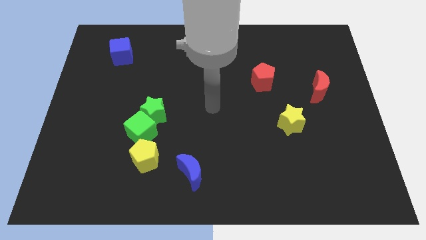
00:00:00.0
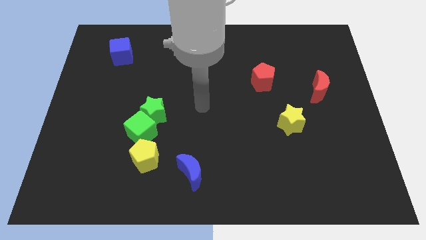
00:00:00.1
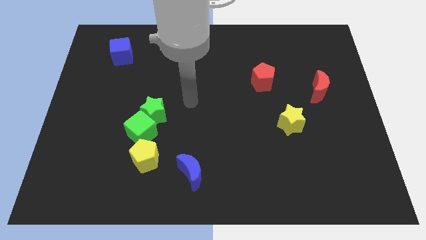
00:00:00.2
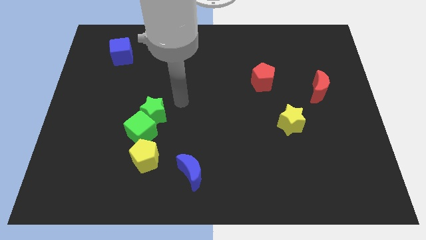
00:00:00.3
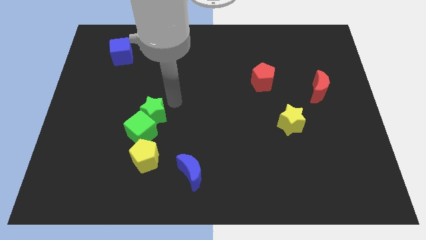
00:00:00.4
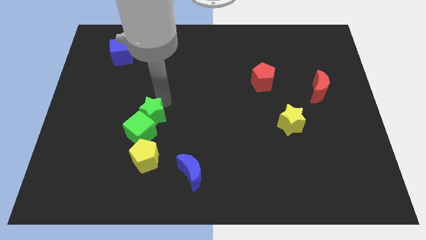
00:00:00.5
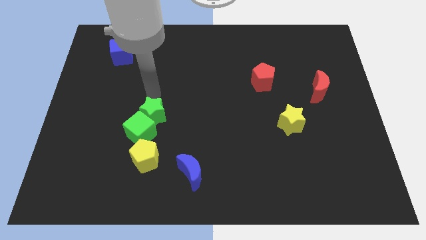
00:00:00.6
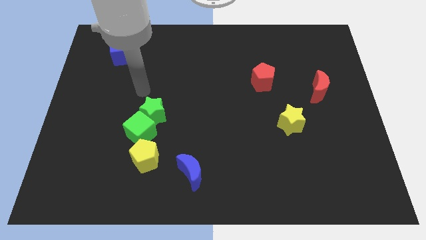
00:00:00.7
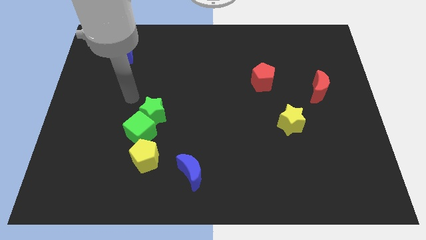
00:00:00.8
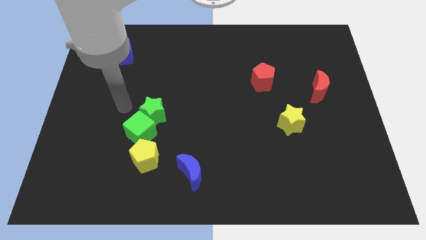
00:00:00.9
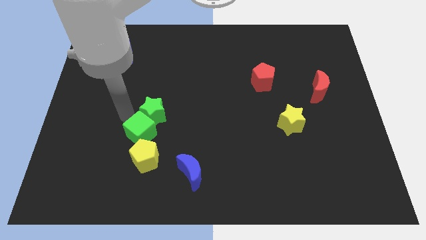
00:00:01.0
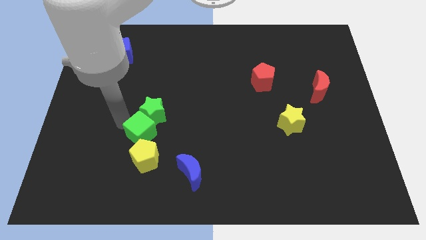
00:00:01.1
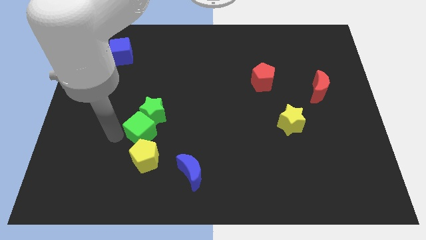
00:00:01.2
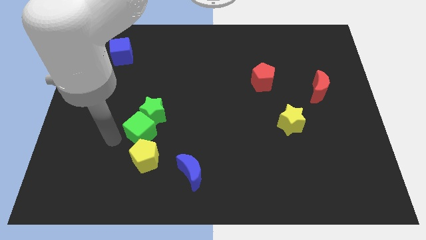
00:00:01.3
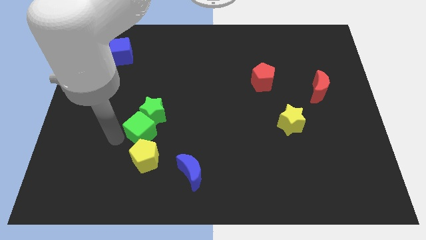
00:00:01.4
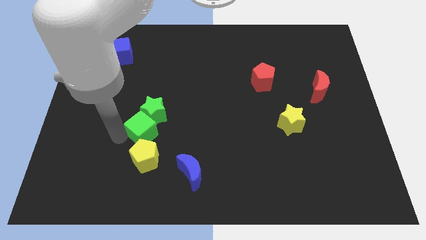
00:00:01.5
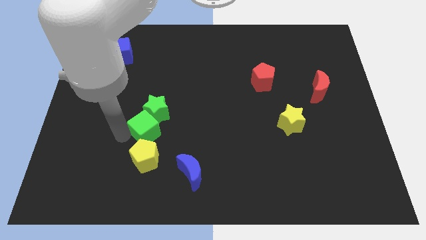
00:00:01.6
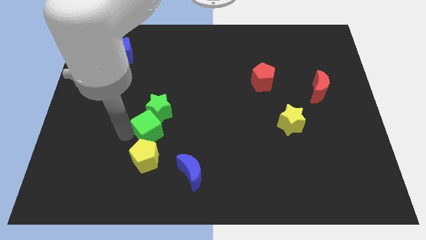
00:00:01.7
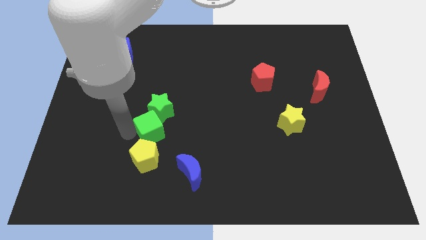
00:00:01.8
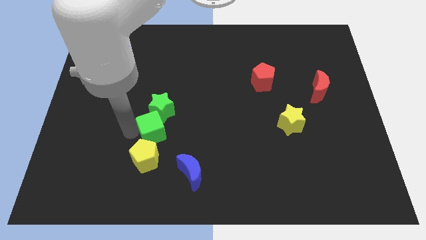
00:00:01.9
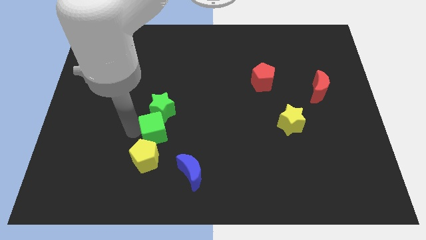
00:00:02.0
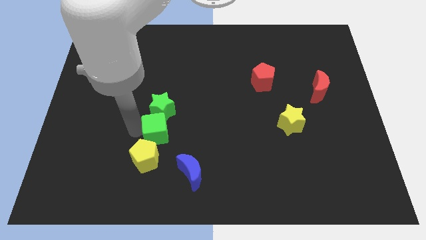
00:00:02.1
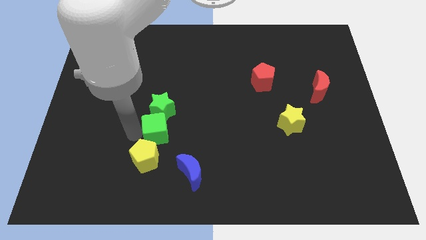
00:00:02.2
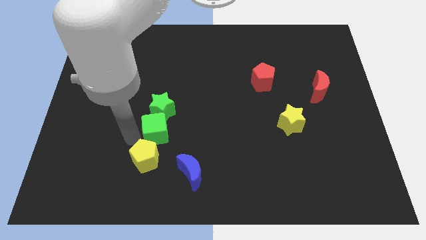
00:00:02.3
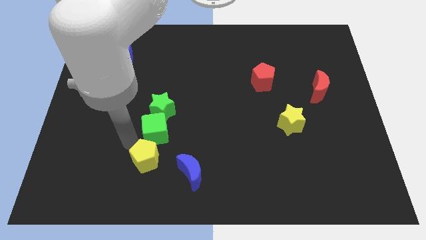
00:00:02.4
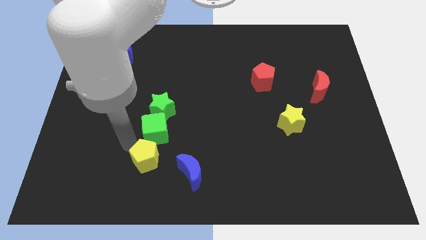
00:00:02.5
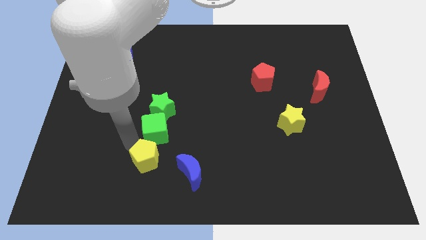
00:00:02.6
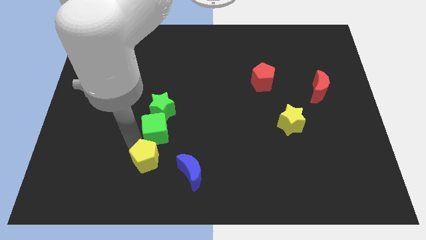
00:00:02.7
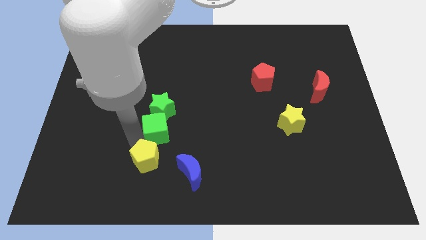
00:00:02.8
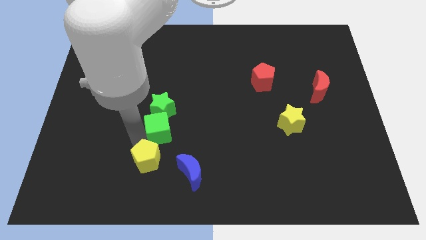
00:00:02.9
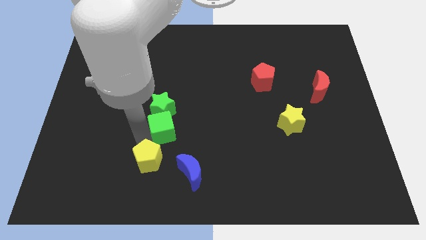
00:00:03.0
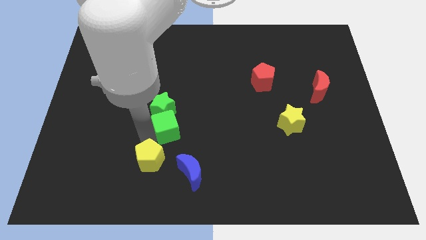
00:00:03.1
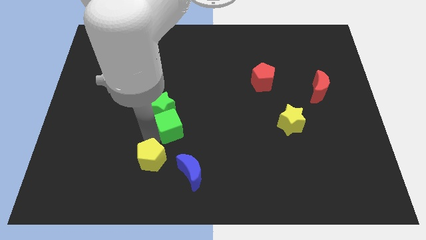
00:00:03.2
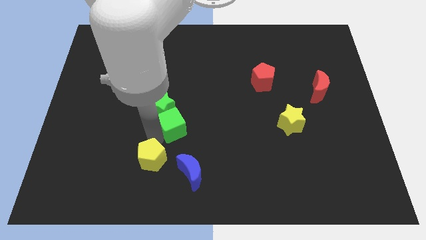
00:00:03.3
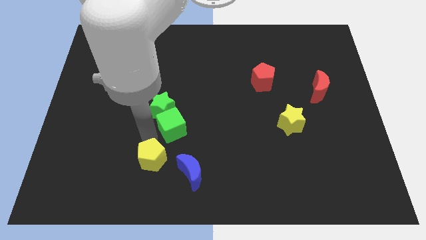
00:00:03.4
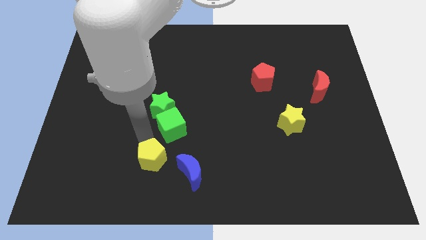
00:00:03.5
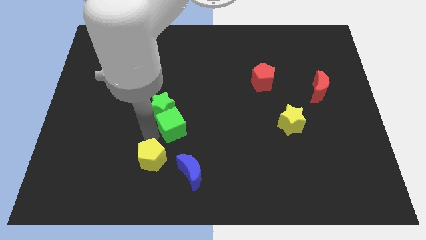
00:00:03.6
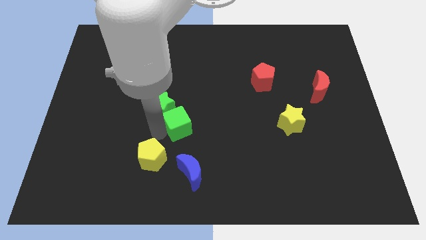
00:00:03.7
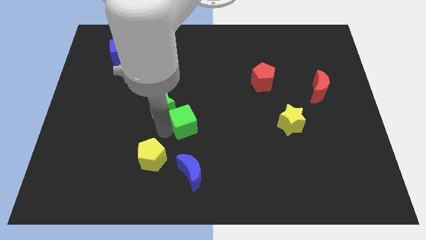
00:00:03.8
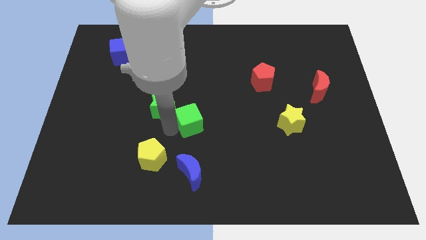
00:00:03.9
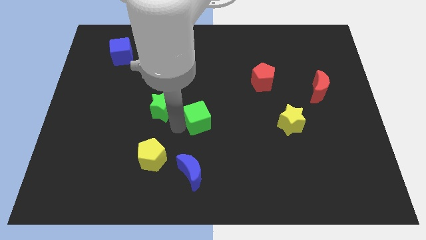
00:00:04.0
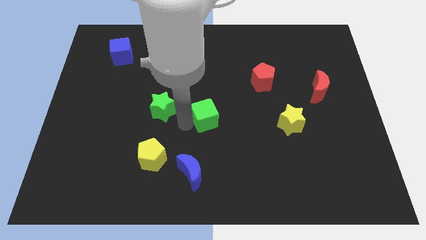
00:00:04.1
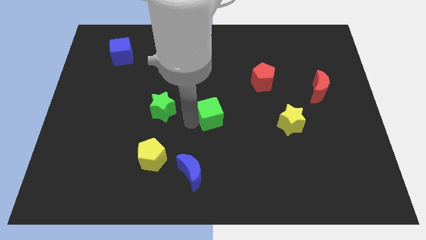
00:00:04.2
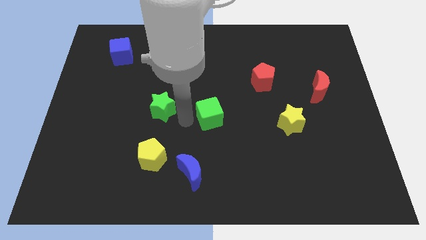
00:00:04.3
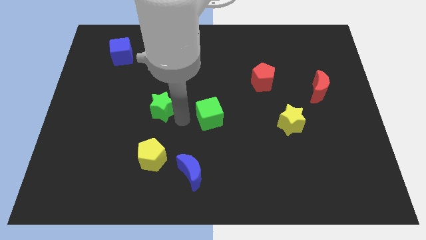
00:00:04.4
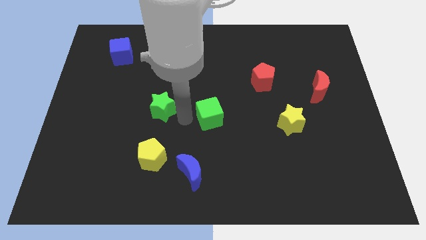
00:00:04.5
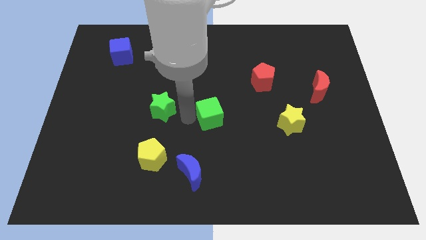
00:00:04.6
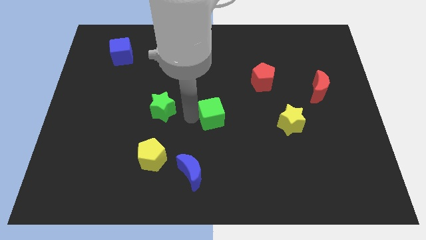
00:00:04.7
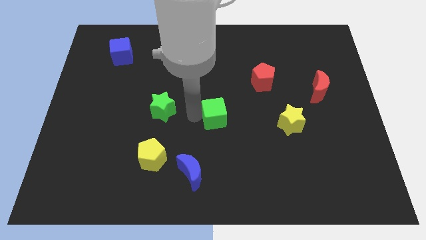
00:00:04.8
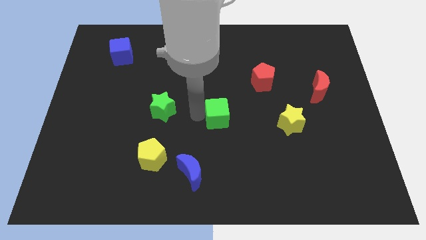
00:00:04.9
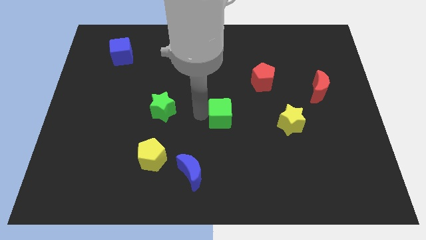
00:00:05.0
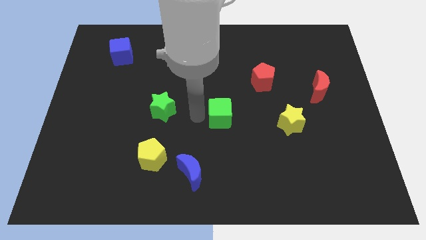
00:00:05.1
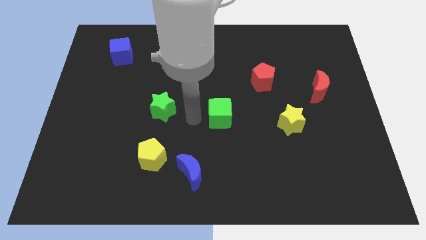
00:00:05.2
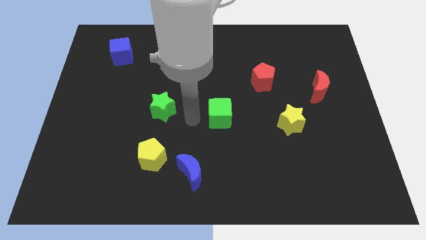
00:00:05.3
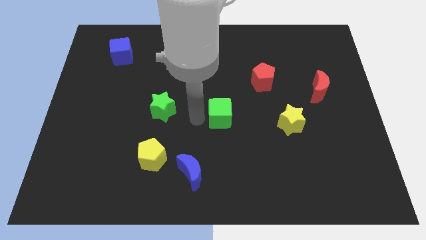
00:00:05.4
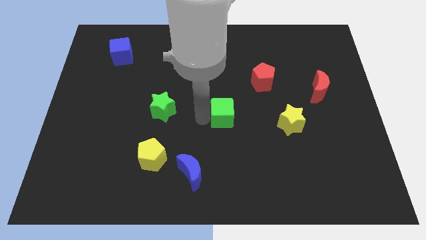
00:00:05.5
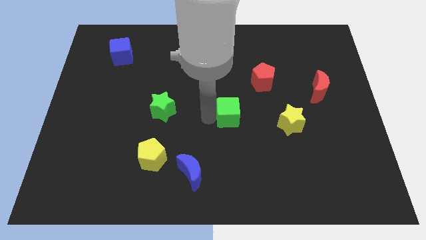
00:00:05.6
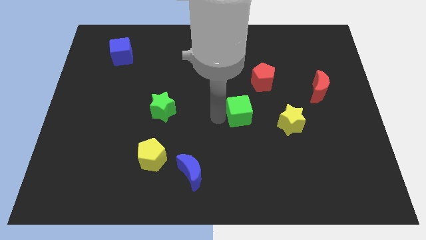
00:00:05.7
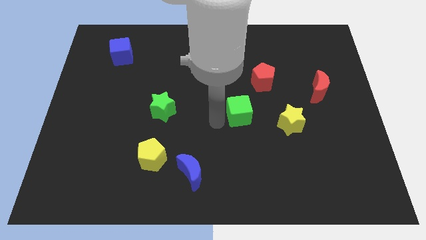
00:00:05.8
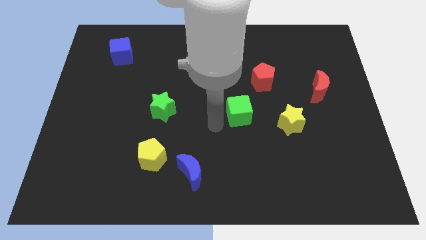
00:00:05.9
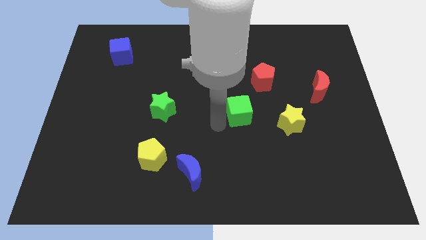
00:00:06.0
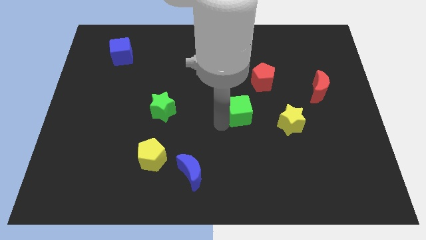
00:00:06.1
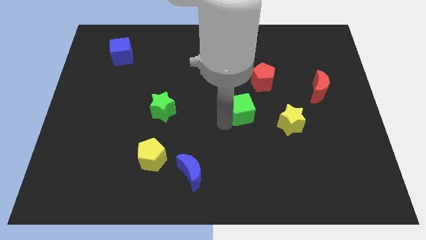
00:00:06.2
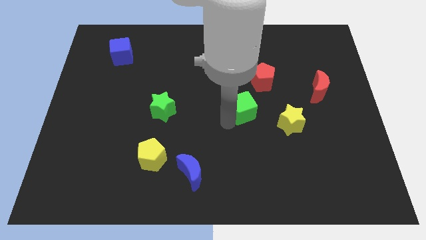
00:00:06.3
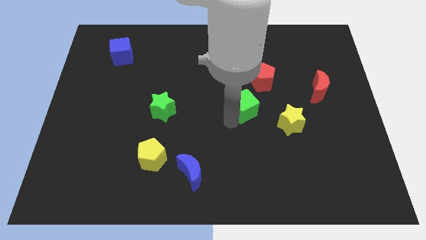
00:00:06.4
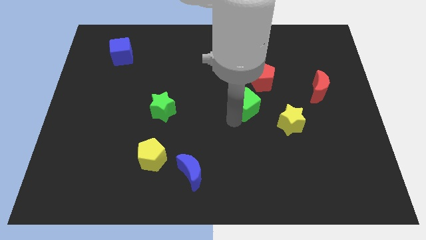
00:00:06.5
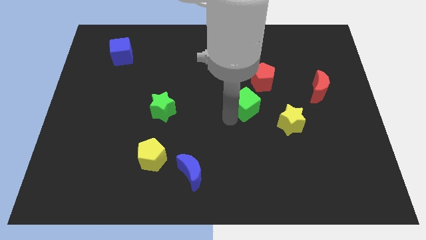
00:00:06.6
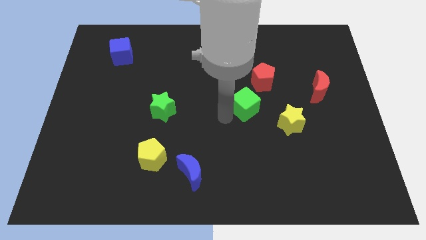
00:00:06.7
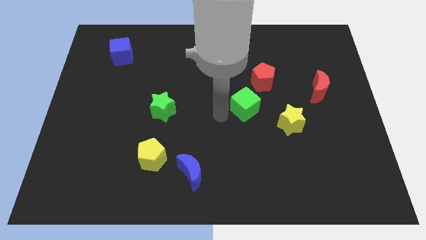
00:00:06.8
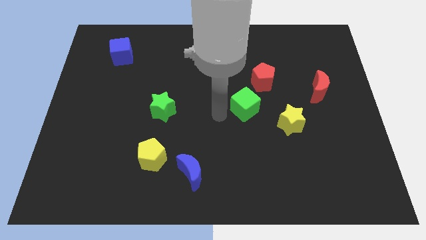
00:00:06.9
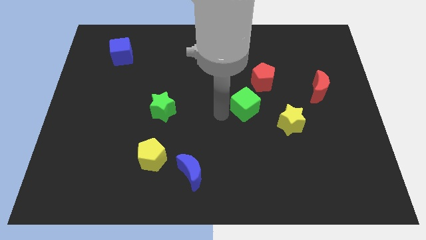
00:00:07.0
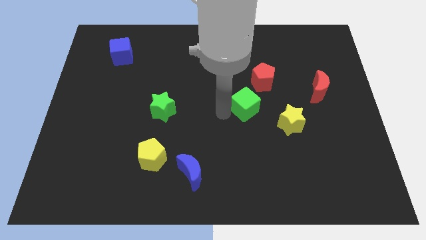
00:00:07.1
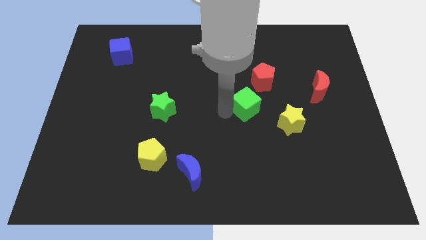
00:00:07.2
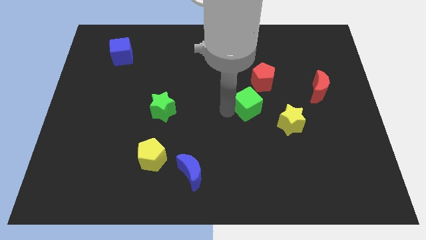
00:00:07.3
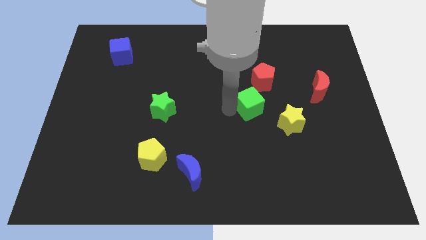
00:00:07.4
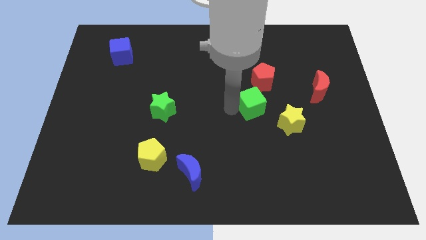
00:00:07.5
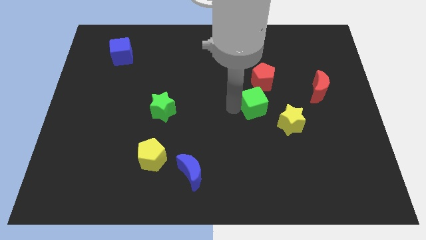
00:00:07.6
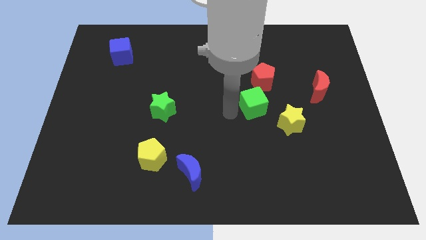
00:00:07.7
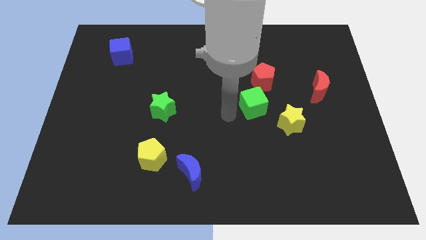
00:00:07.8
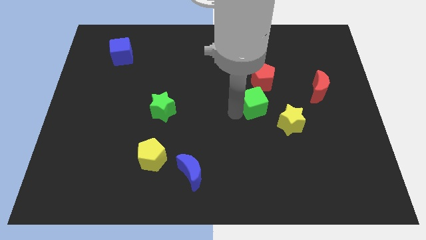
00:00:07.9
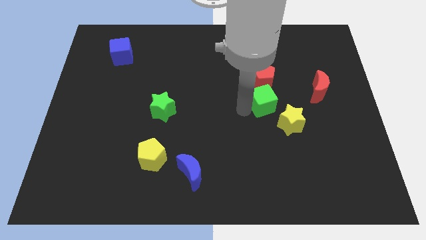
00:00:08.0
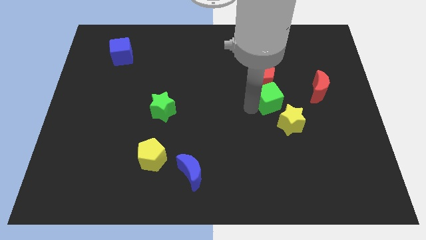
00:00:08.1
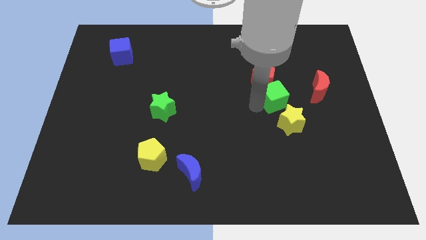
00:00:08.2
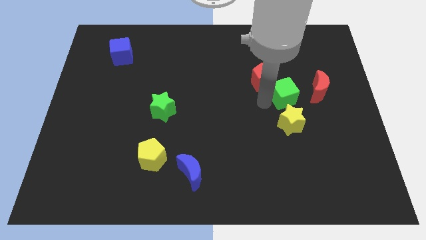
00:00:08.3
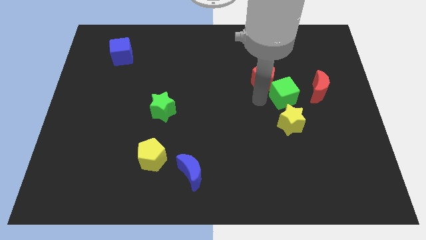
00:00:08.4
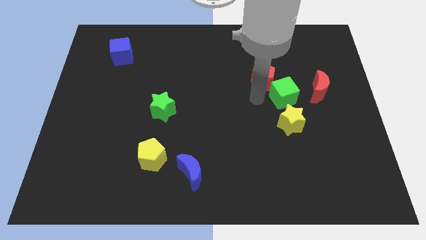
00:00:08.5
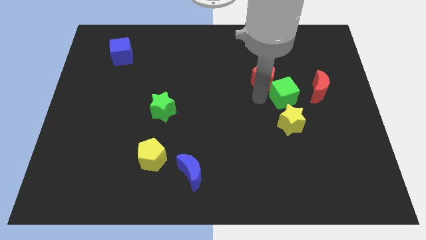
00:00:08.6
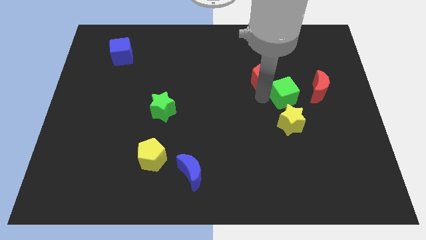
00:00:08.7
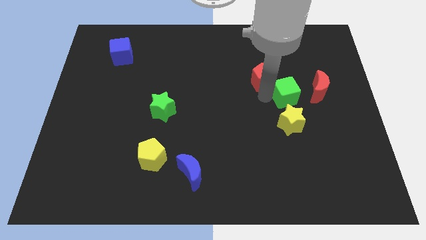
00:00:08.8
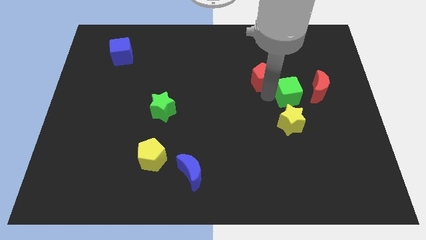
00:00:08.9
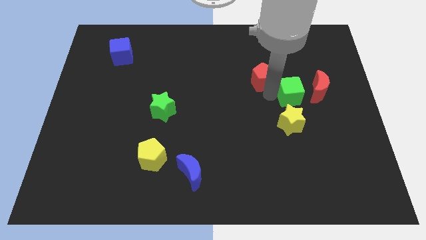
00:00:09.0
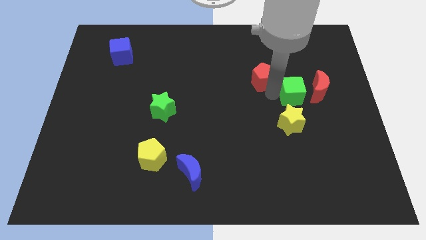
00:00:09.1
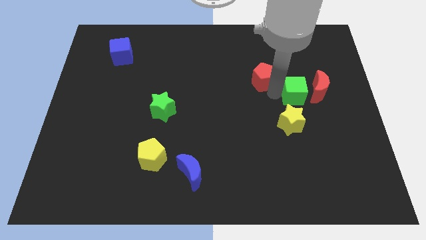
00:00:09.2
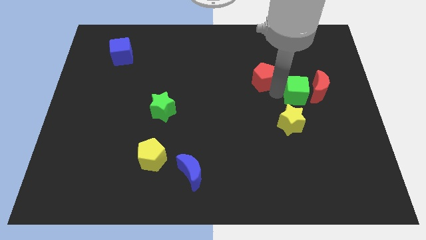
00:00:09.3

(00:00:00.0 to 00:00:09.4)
slide the green cube to the red moon
